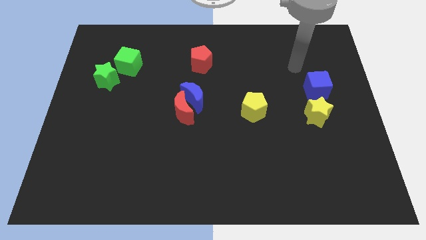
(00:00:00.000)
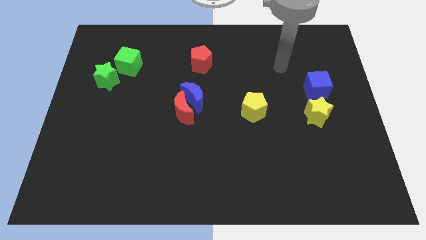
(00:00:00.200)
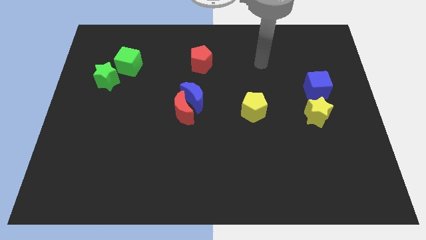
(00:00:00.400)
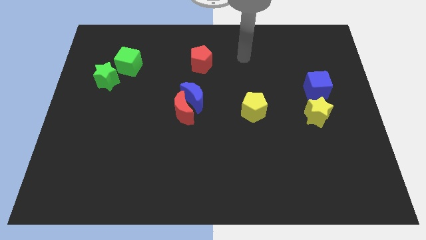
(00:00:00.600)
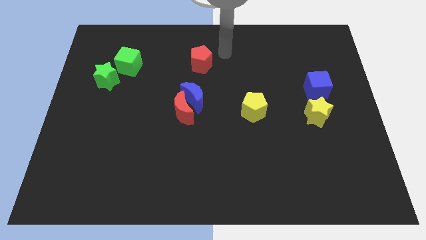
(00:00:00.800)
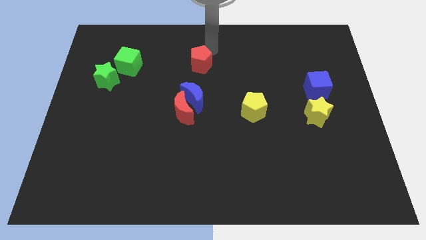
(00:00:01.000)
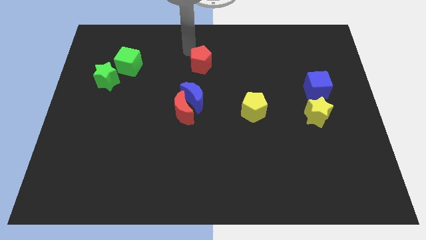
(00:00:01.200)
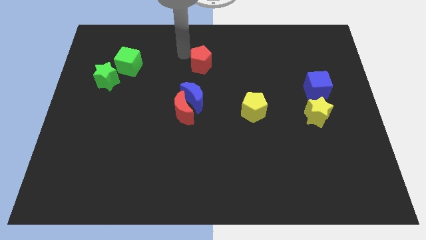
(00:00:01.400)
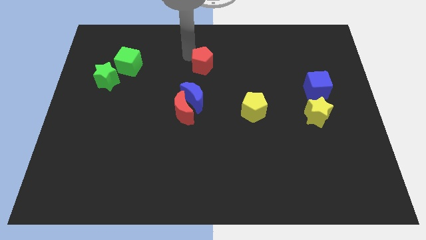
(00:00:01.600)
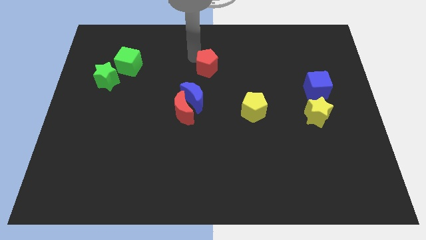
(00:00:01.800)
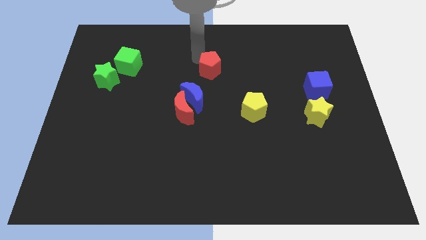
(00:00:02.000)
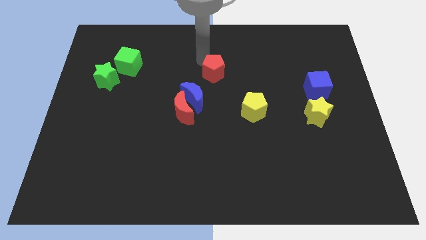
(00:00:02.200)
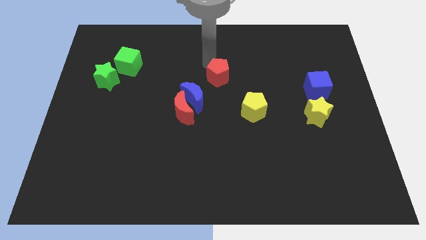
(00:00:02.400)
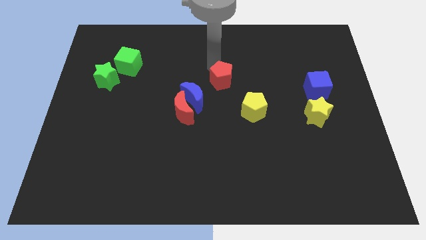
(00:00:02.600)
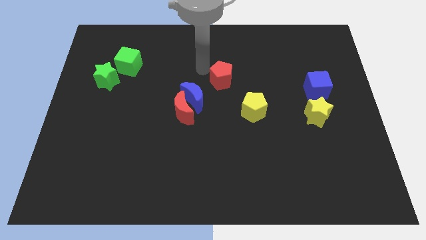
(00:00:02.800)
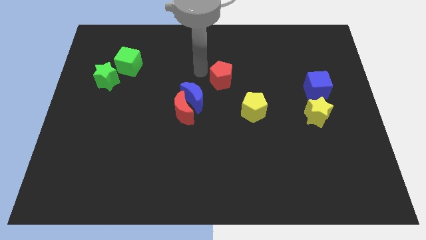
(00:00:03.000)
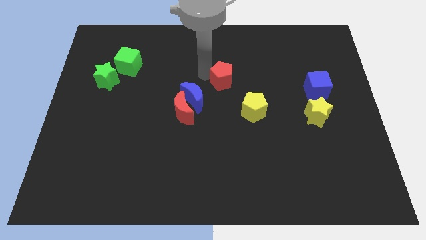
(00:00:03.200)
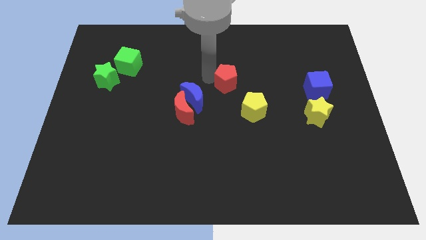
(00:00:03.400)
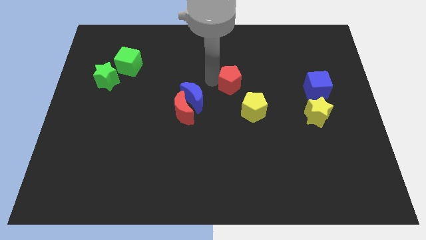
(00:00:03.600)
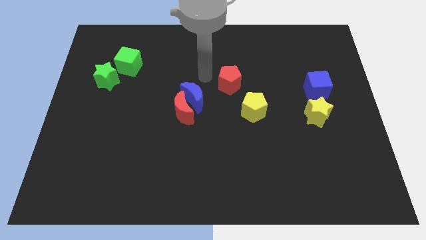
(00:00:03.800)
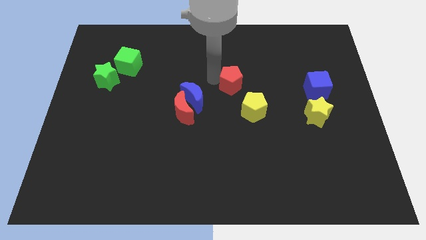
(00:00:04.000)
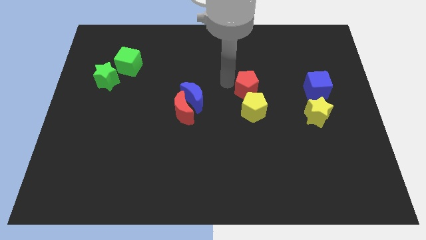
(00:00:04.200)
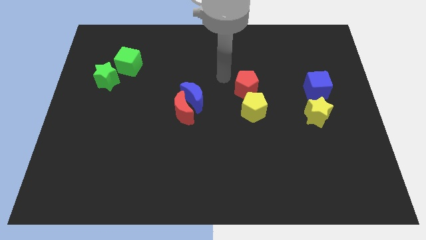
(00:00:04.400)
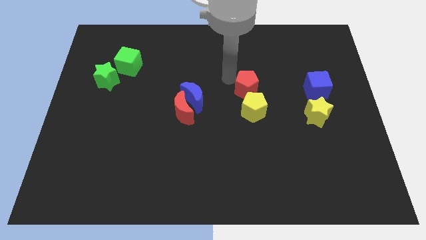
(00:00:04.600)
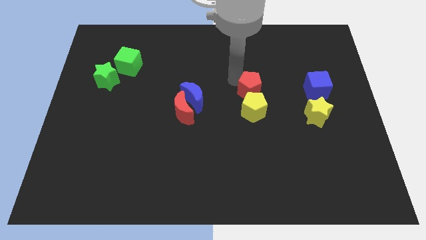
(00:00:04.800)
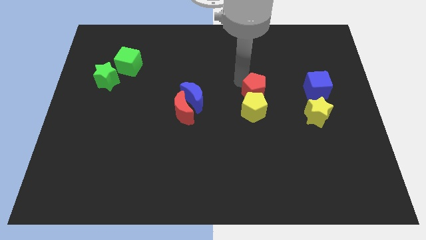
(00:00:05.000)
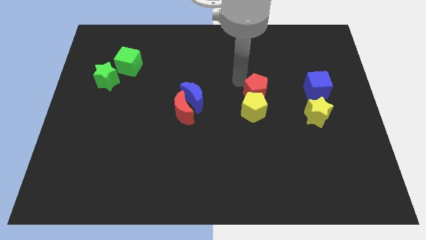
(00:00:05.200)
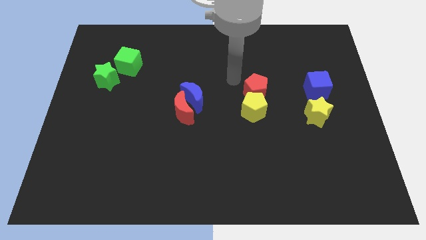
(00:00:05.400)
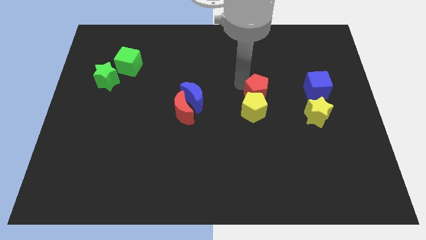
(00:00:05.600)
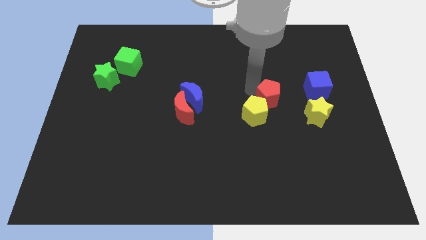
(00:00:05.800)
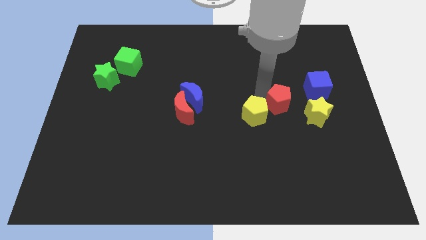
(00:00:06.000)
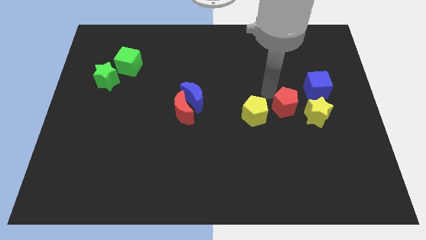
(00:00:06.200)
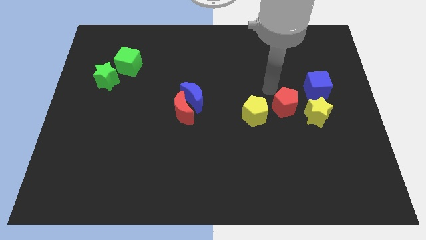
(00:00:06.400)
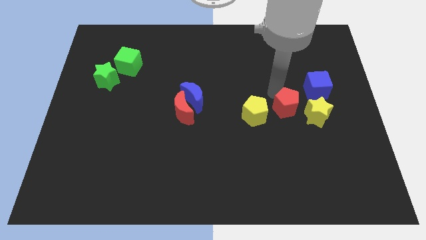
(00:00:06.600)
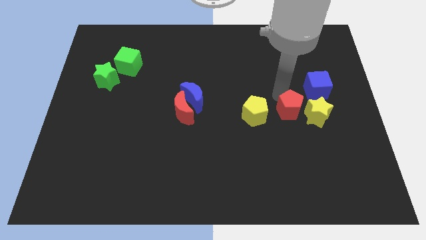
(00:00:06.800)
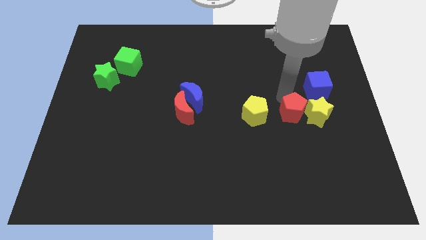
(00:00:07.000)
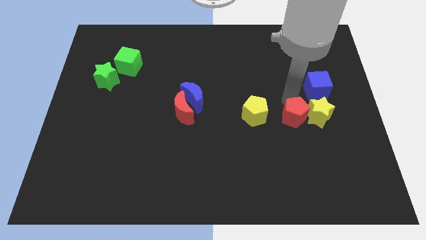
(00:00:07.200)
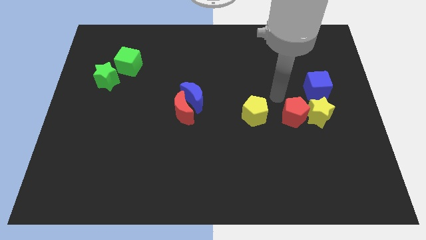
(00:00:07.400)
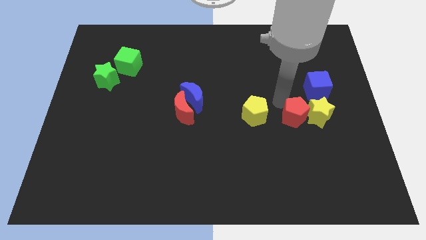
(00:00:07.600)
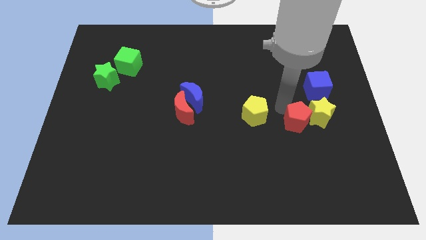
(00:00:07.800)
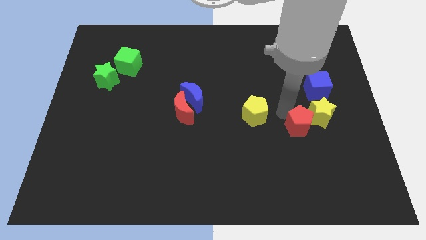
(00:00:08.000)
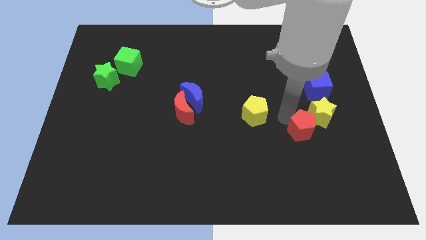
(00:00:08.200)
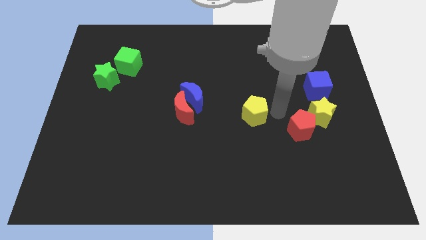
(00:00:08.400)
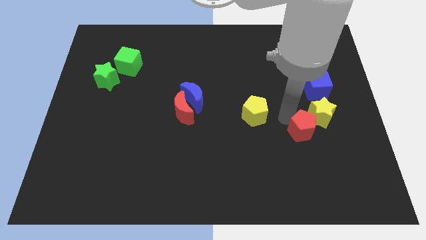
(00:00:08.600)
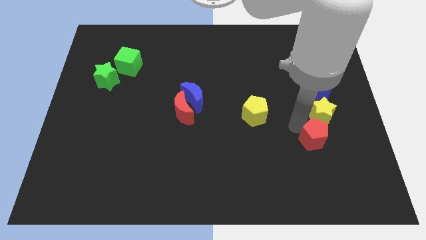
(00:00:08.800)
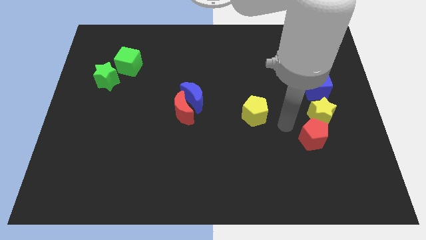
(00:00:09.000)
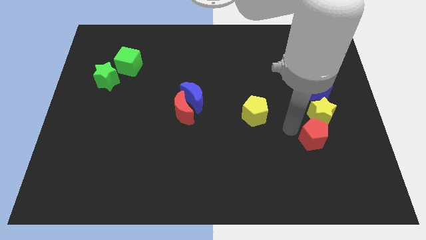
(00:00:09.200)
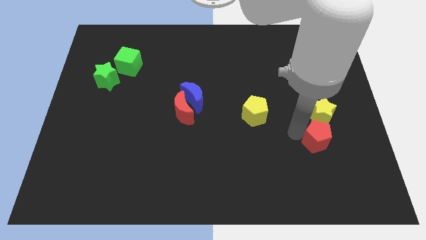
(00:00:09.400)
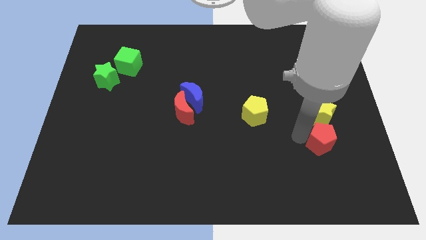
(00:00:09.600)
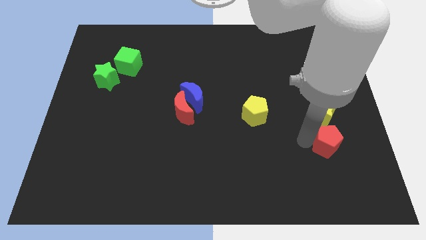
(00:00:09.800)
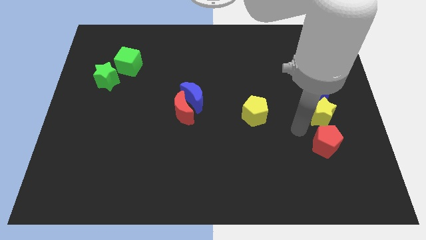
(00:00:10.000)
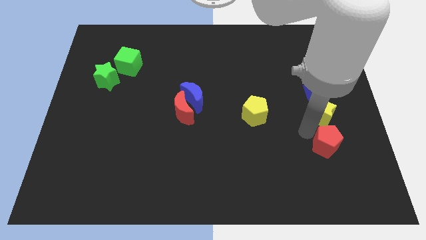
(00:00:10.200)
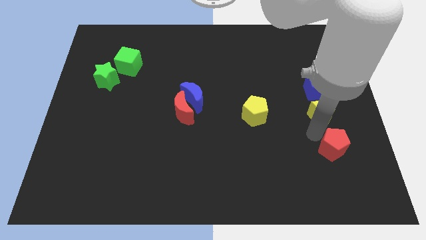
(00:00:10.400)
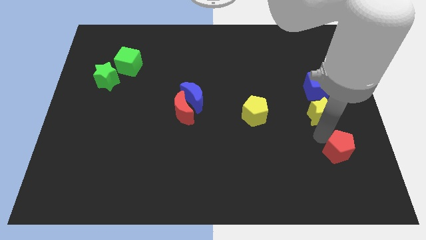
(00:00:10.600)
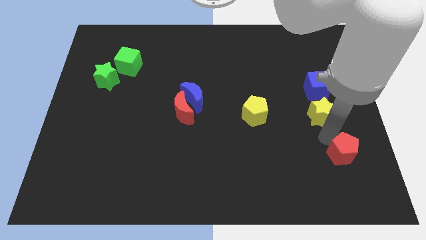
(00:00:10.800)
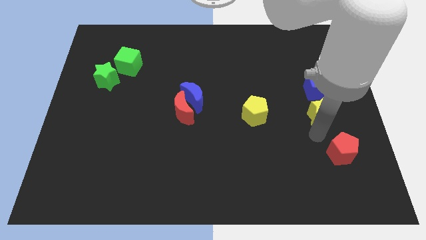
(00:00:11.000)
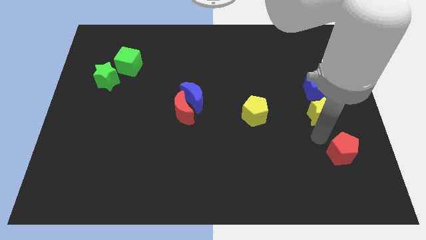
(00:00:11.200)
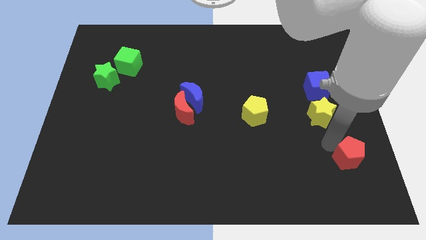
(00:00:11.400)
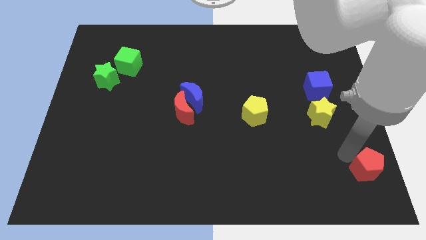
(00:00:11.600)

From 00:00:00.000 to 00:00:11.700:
put the red pentagon to the bottom right of the board

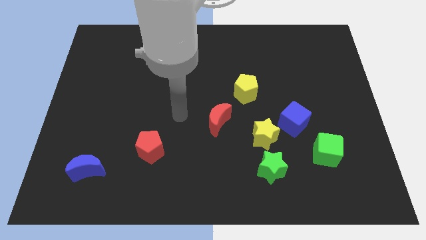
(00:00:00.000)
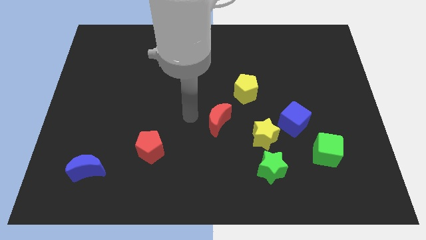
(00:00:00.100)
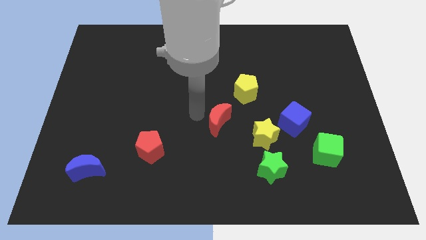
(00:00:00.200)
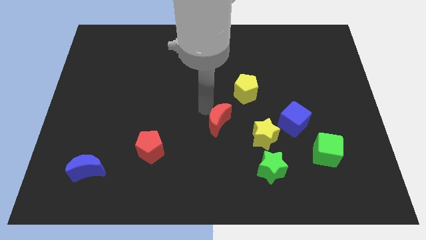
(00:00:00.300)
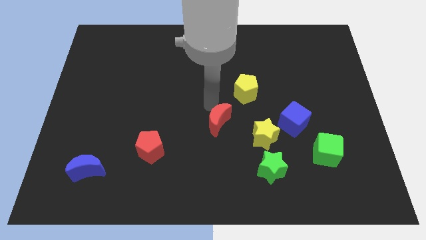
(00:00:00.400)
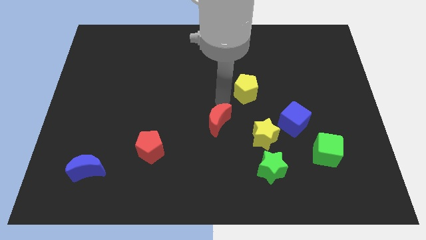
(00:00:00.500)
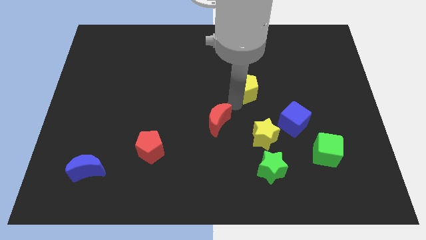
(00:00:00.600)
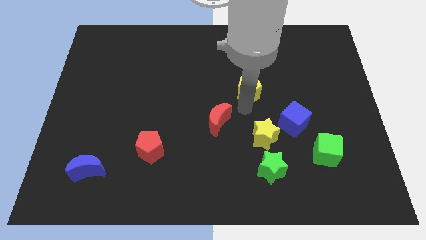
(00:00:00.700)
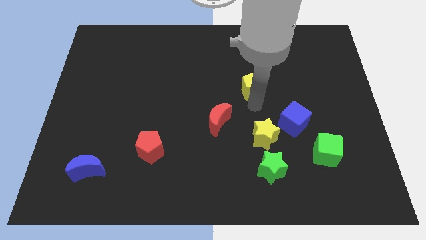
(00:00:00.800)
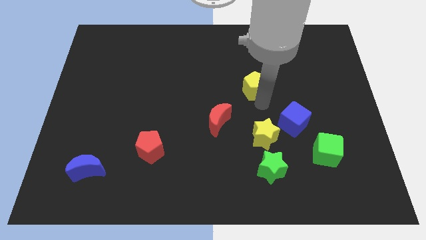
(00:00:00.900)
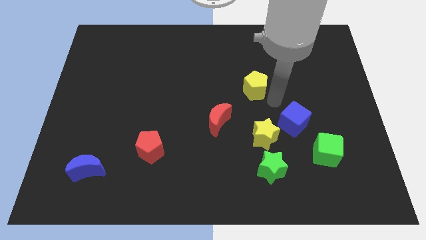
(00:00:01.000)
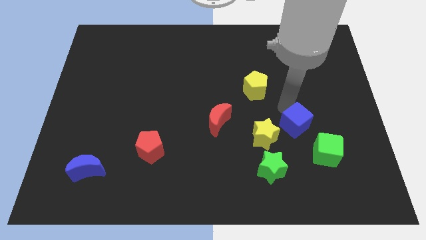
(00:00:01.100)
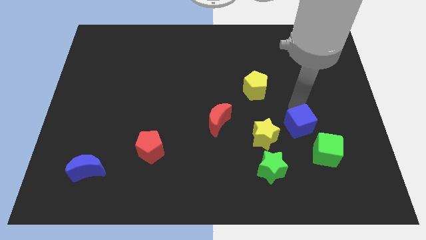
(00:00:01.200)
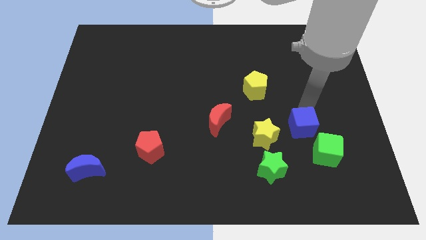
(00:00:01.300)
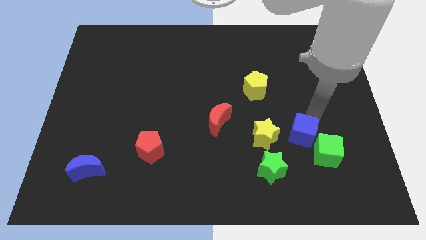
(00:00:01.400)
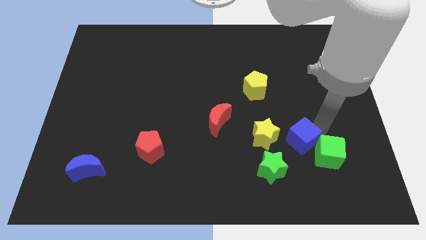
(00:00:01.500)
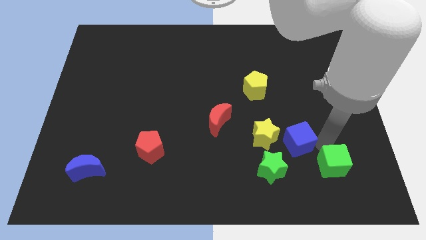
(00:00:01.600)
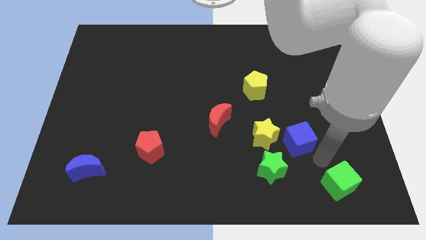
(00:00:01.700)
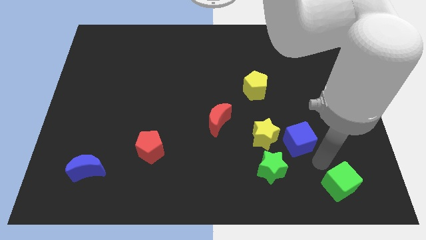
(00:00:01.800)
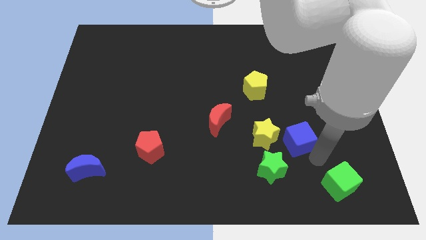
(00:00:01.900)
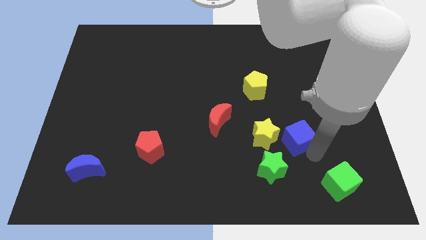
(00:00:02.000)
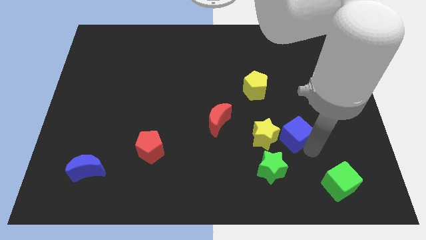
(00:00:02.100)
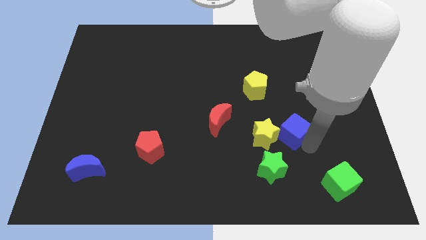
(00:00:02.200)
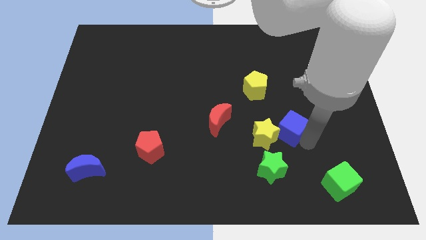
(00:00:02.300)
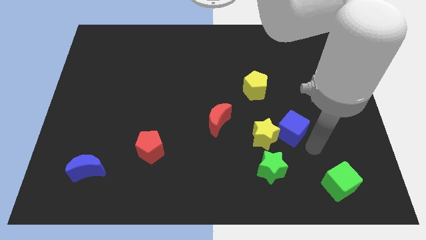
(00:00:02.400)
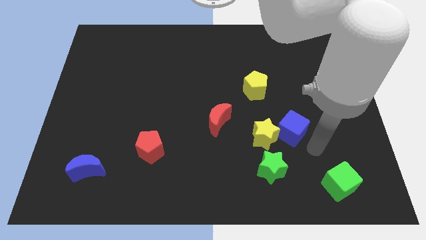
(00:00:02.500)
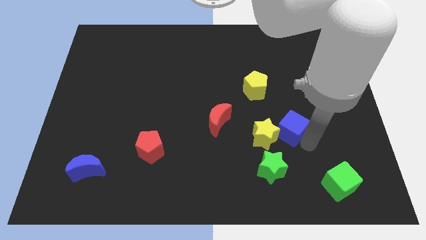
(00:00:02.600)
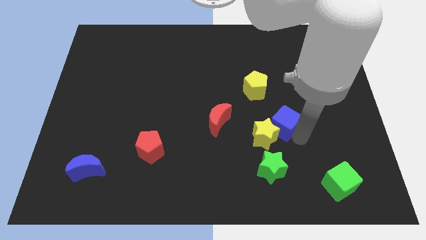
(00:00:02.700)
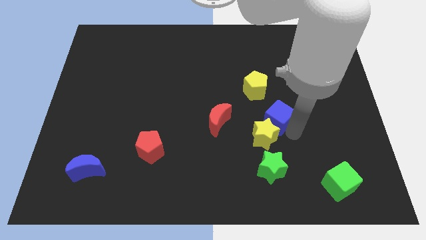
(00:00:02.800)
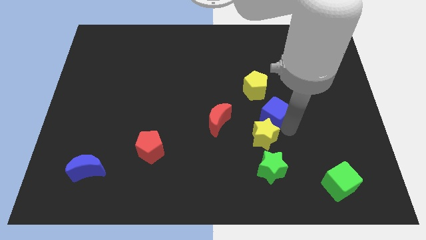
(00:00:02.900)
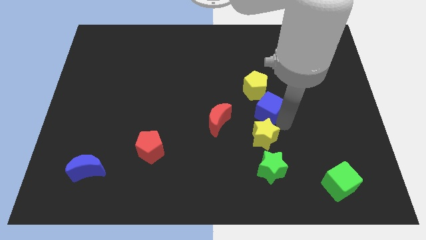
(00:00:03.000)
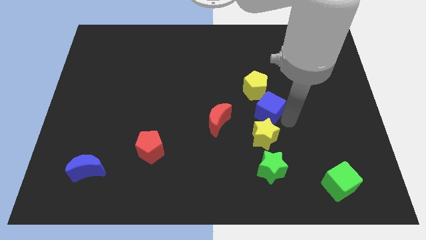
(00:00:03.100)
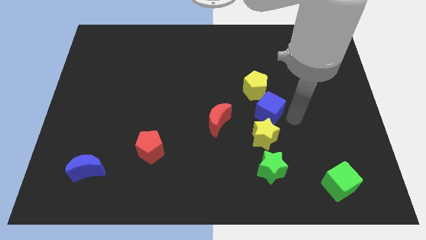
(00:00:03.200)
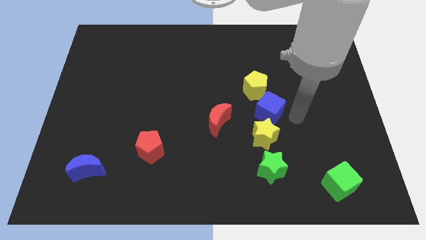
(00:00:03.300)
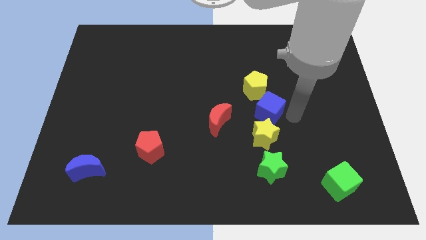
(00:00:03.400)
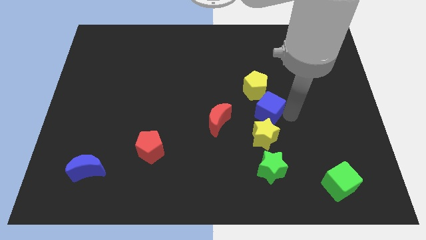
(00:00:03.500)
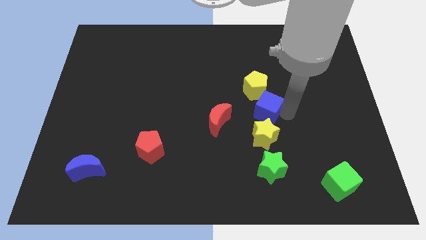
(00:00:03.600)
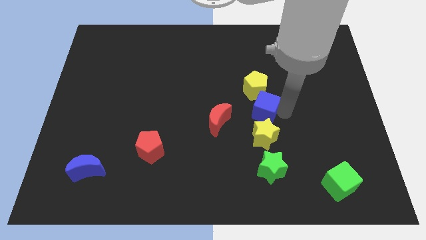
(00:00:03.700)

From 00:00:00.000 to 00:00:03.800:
put the blue cube to the middle of the board
